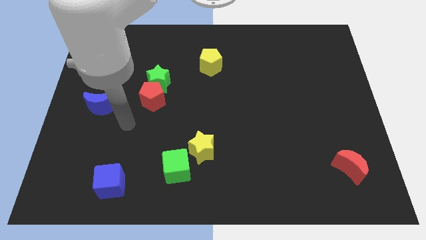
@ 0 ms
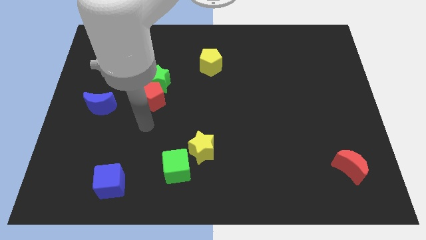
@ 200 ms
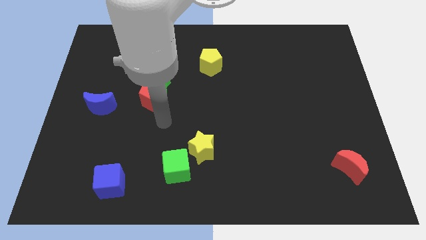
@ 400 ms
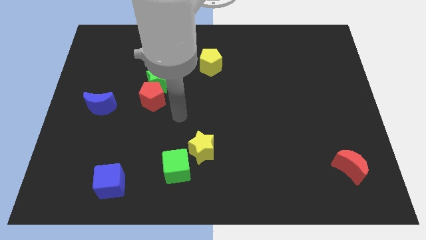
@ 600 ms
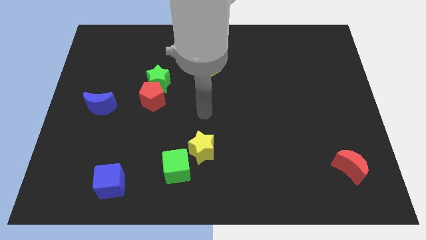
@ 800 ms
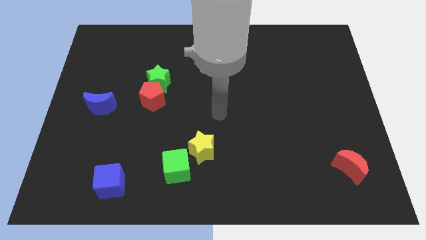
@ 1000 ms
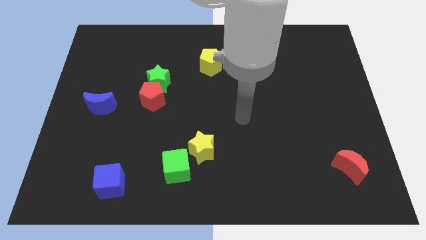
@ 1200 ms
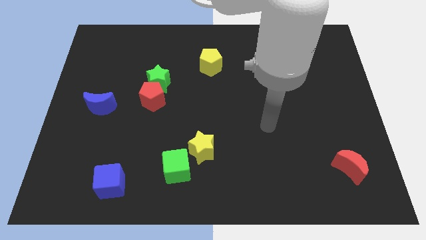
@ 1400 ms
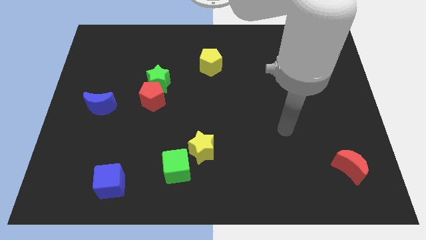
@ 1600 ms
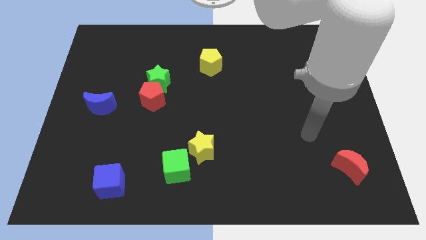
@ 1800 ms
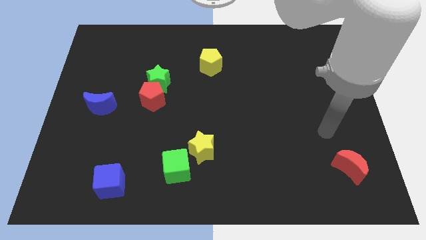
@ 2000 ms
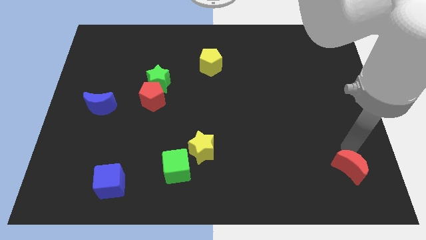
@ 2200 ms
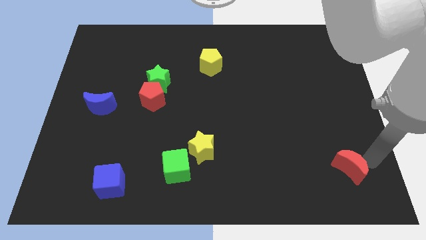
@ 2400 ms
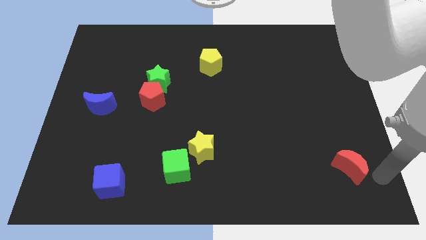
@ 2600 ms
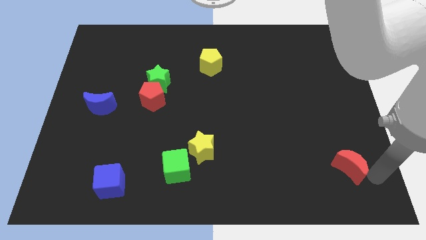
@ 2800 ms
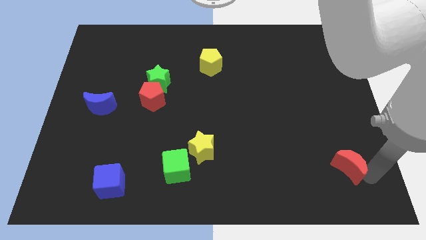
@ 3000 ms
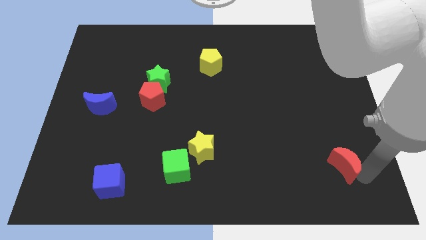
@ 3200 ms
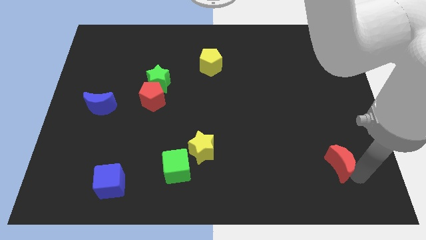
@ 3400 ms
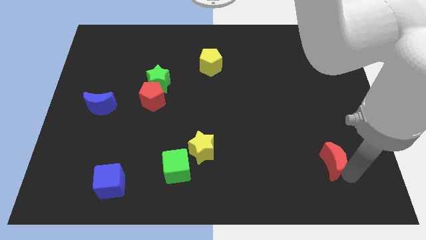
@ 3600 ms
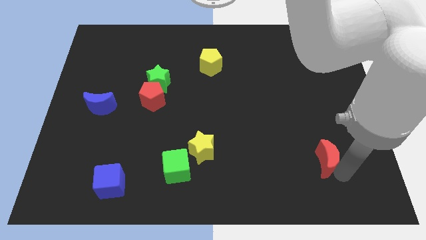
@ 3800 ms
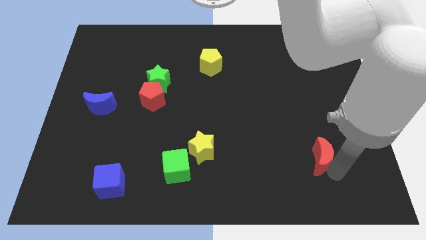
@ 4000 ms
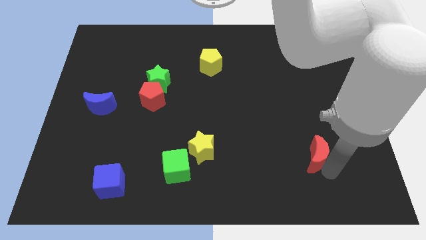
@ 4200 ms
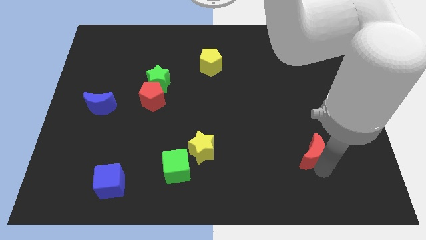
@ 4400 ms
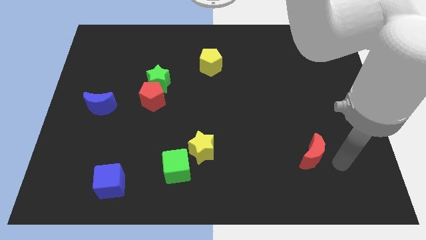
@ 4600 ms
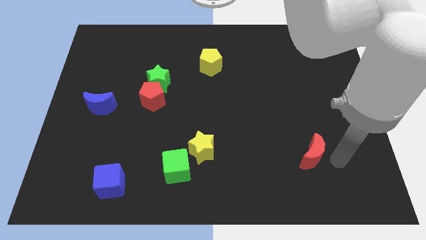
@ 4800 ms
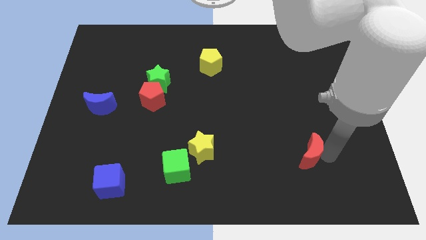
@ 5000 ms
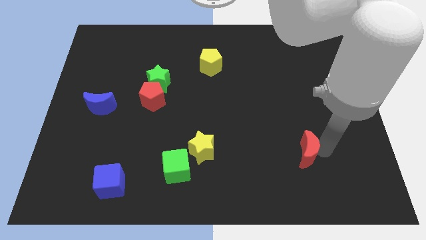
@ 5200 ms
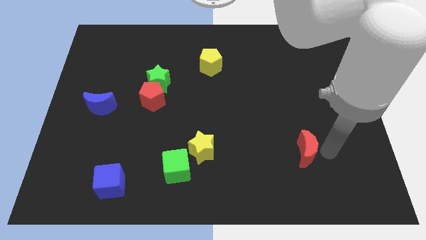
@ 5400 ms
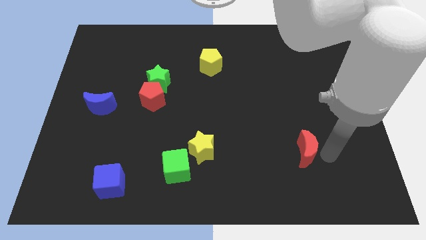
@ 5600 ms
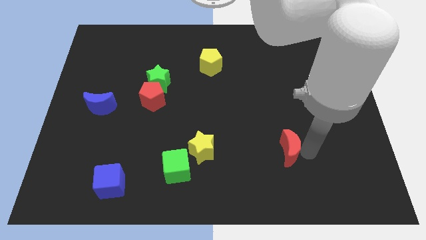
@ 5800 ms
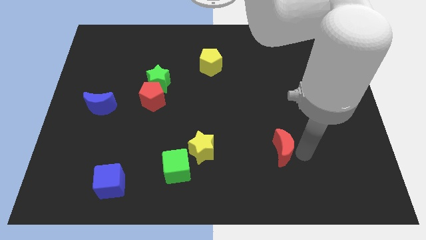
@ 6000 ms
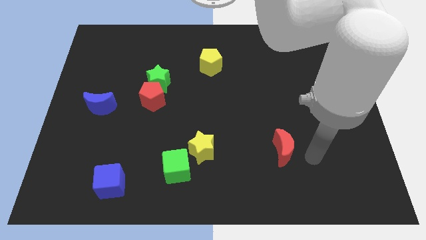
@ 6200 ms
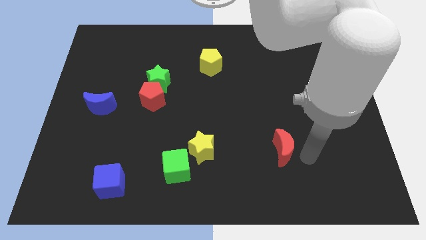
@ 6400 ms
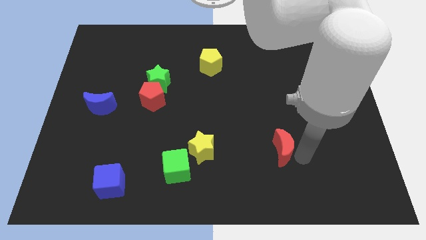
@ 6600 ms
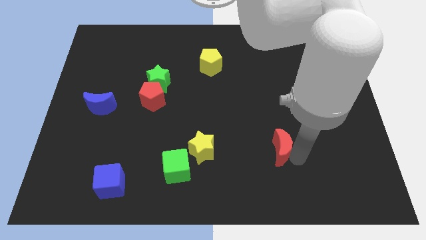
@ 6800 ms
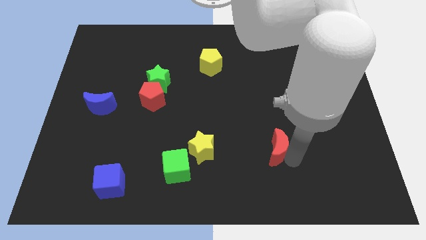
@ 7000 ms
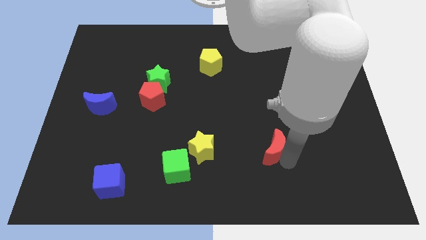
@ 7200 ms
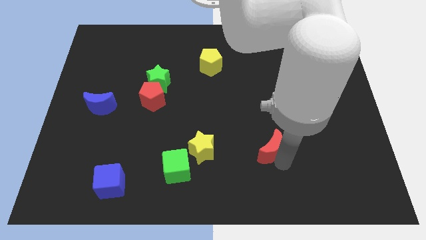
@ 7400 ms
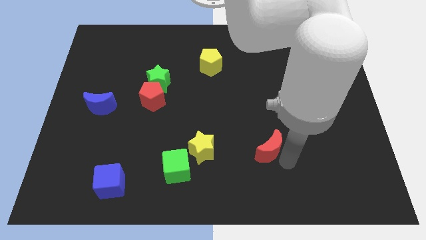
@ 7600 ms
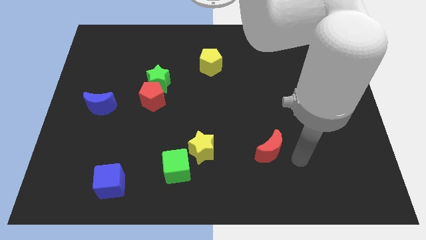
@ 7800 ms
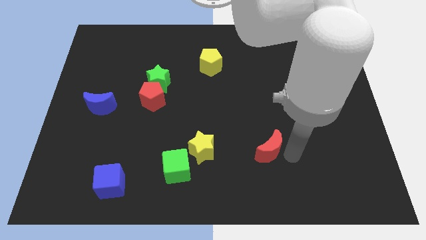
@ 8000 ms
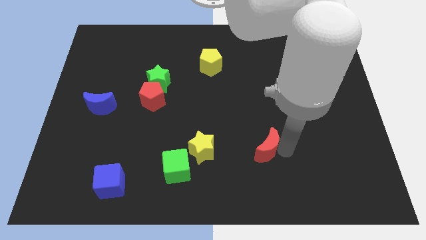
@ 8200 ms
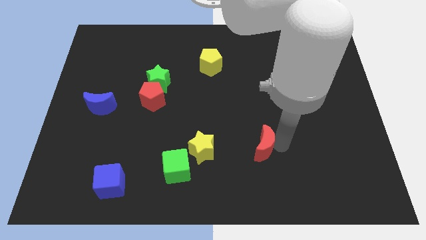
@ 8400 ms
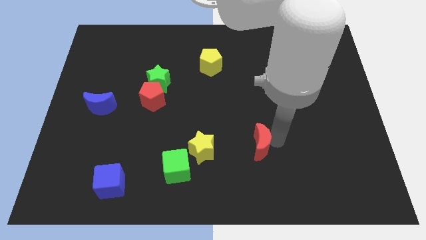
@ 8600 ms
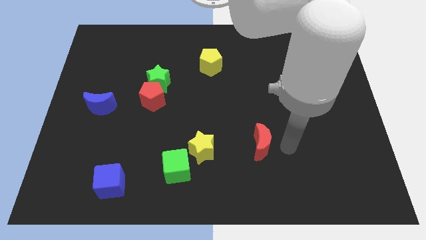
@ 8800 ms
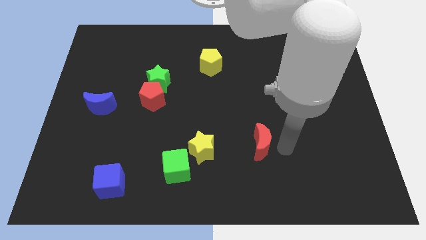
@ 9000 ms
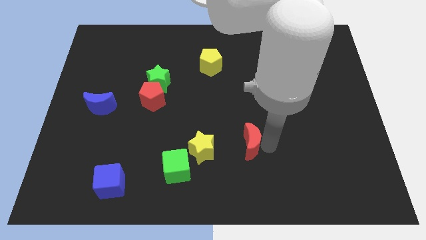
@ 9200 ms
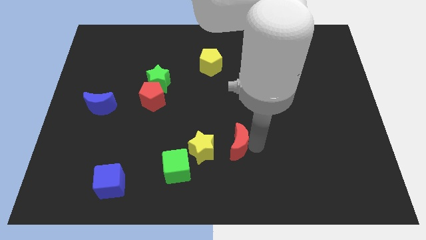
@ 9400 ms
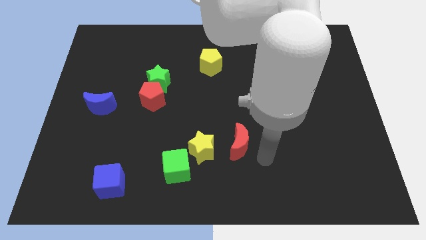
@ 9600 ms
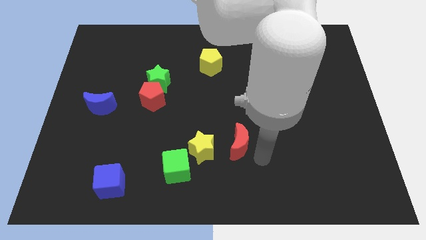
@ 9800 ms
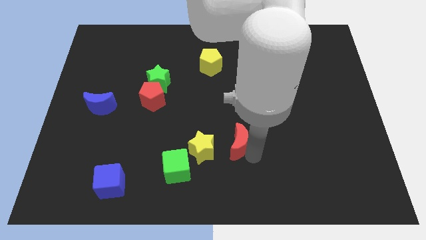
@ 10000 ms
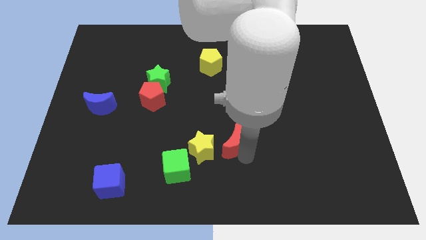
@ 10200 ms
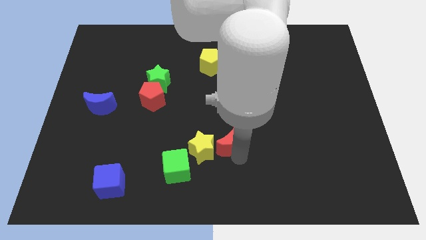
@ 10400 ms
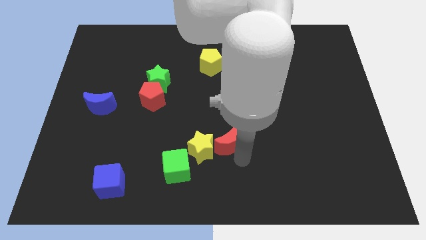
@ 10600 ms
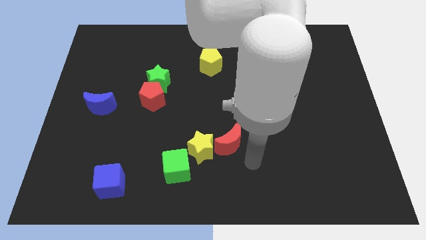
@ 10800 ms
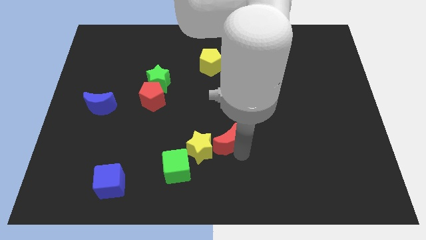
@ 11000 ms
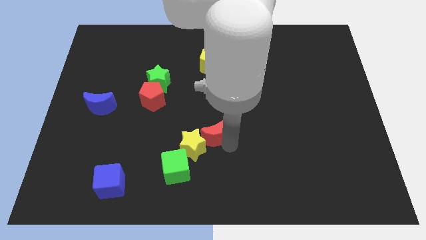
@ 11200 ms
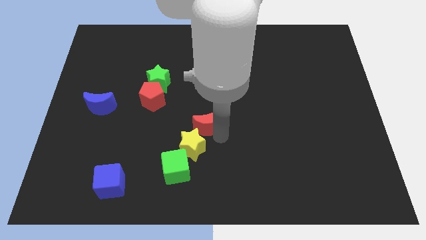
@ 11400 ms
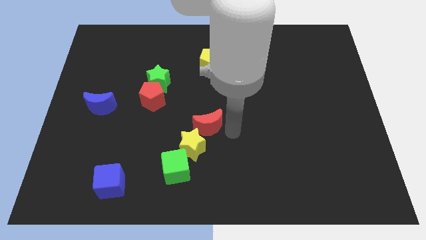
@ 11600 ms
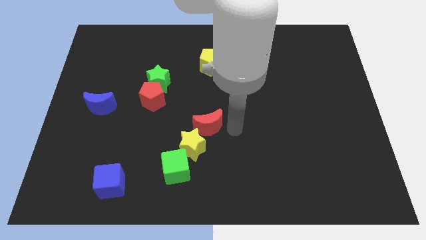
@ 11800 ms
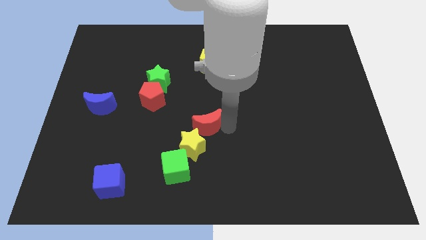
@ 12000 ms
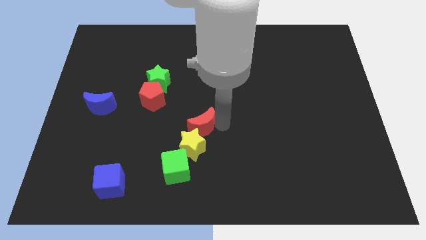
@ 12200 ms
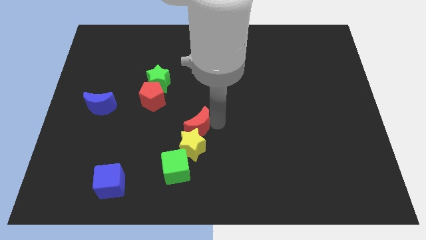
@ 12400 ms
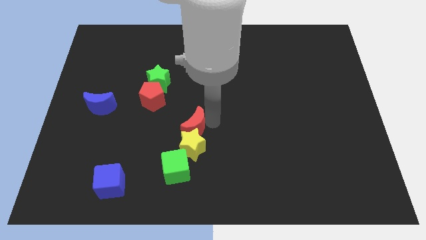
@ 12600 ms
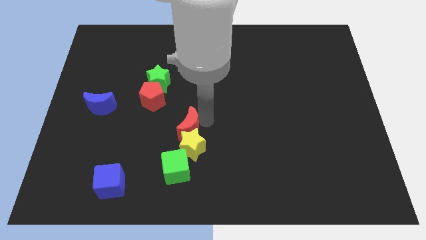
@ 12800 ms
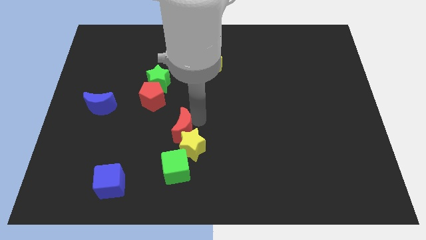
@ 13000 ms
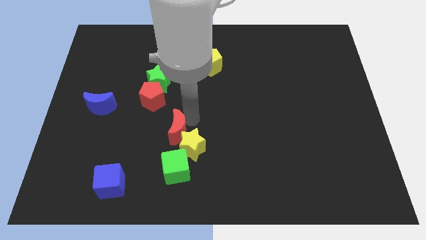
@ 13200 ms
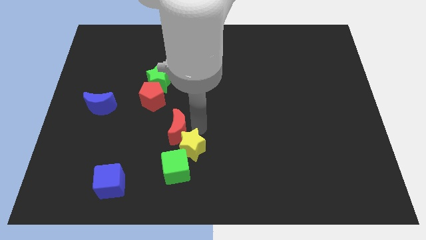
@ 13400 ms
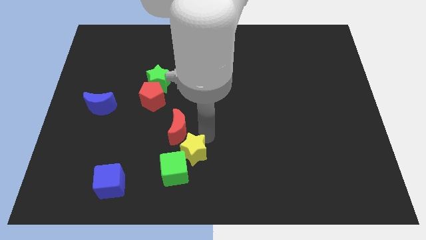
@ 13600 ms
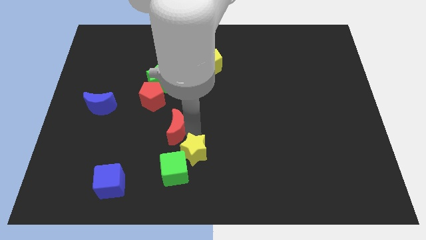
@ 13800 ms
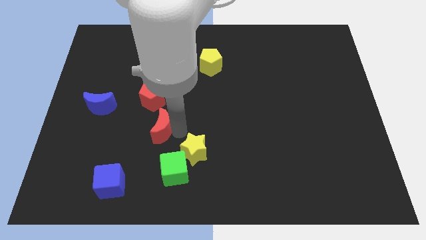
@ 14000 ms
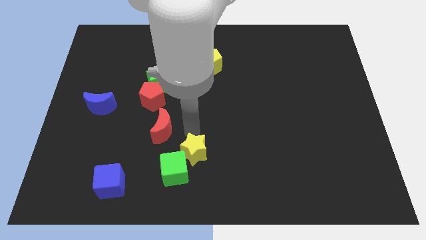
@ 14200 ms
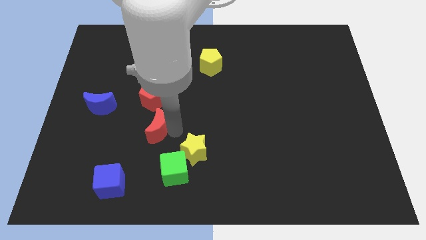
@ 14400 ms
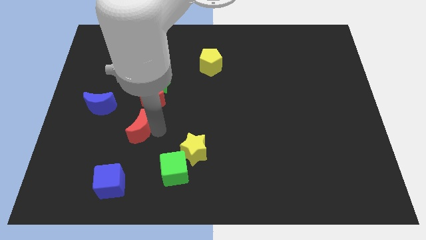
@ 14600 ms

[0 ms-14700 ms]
put the red moon to the bottom right side of the blue moon
